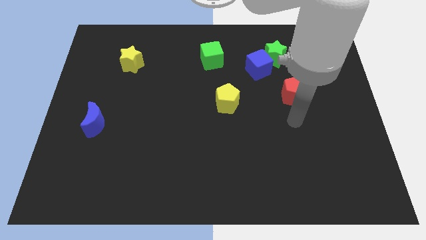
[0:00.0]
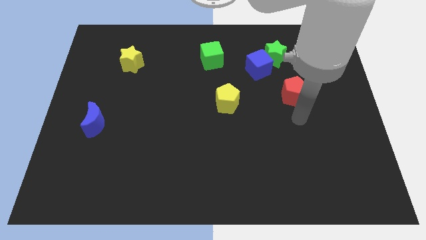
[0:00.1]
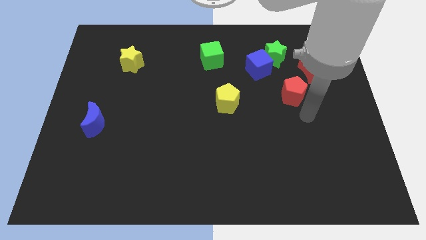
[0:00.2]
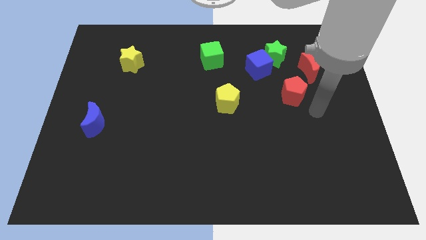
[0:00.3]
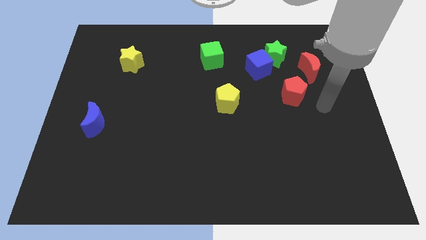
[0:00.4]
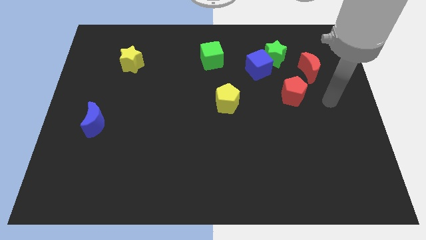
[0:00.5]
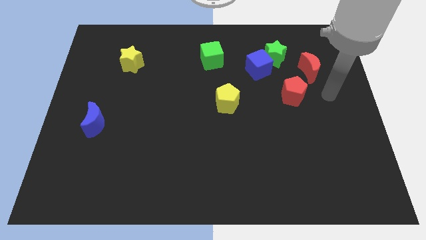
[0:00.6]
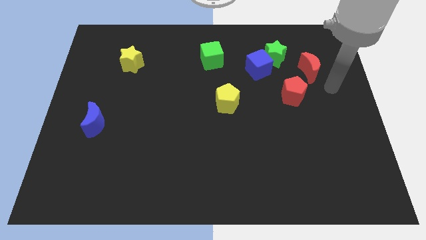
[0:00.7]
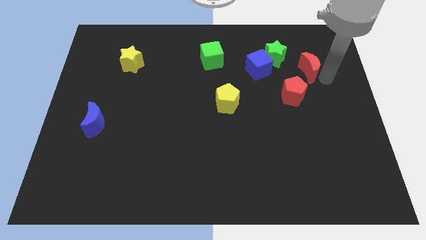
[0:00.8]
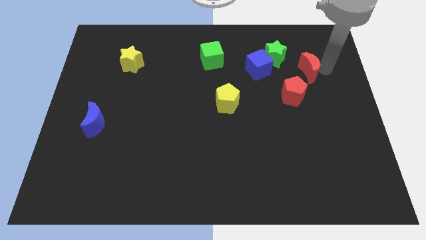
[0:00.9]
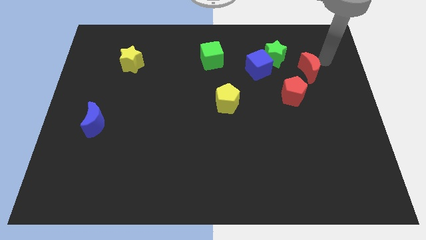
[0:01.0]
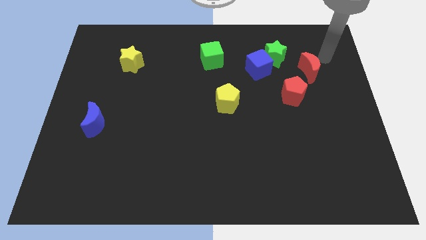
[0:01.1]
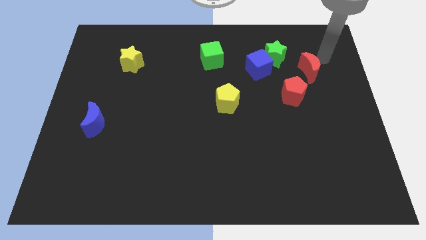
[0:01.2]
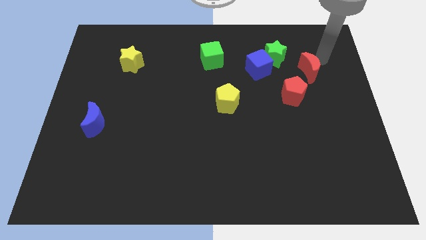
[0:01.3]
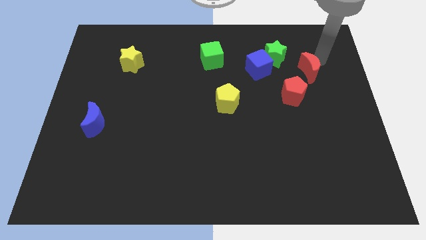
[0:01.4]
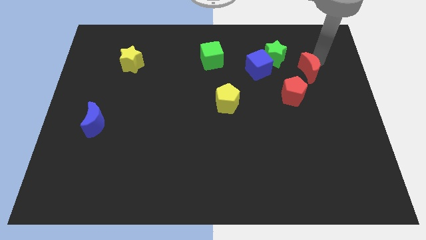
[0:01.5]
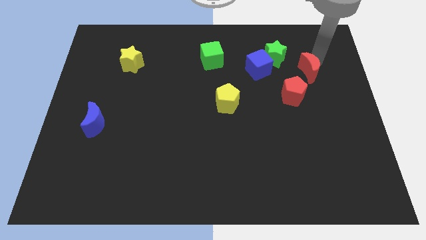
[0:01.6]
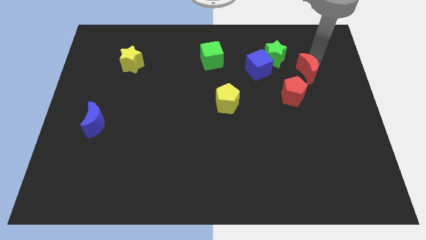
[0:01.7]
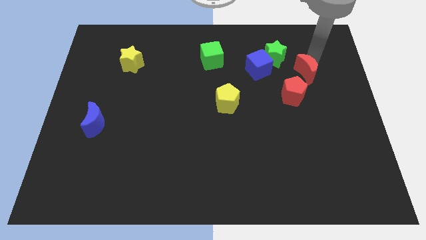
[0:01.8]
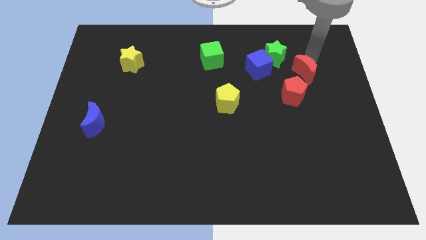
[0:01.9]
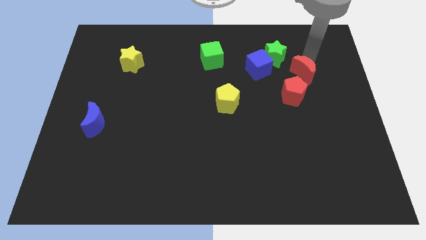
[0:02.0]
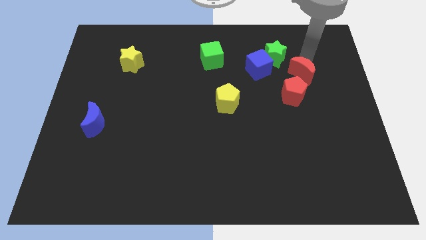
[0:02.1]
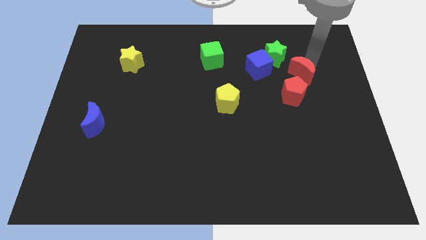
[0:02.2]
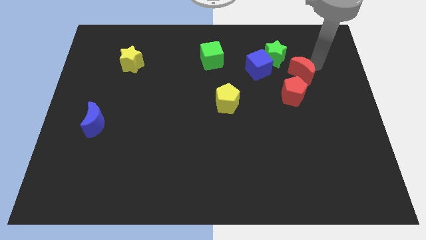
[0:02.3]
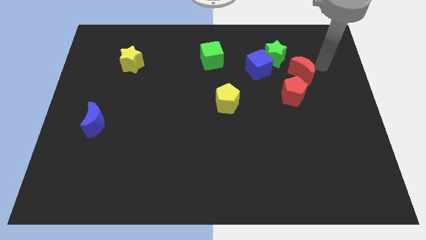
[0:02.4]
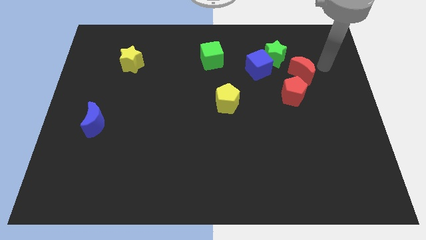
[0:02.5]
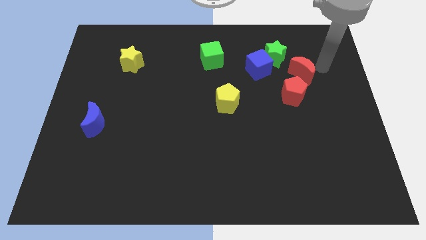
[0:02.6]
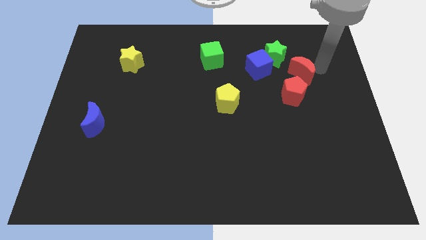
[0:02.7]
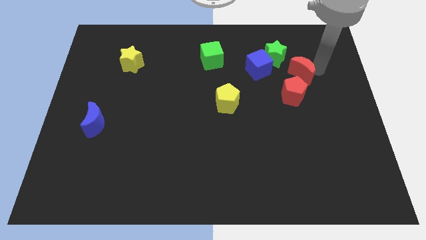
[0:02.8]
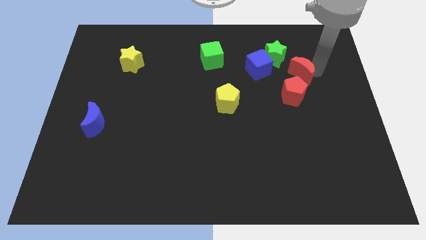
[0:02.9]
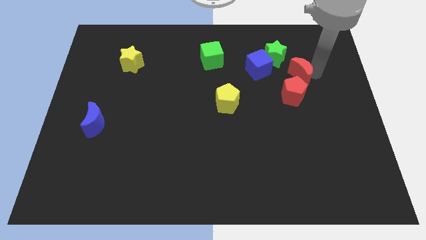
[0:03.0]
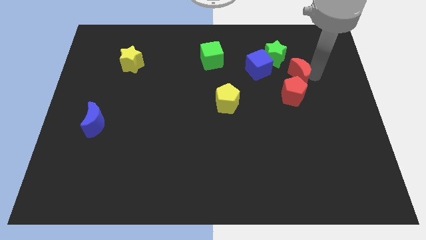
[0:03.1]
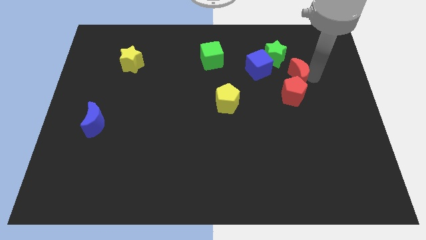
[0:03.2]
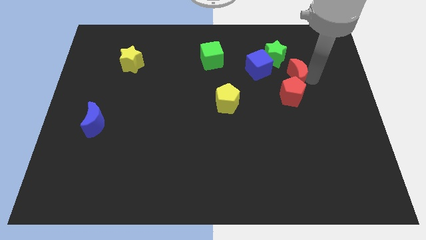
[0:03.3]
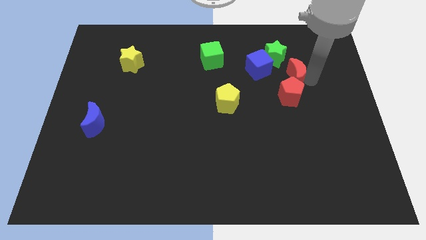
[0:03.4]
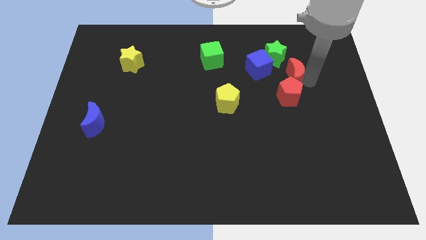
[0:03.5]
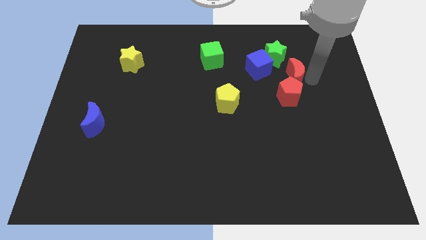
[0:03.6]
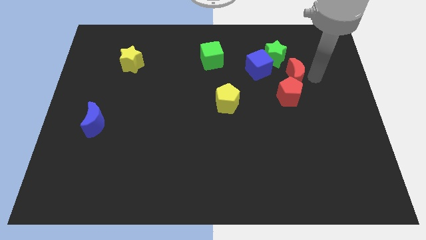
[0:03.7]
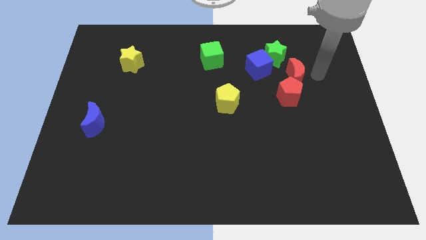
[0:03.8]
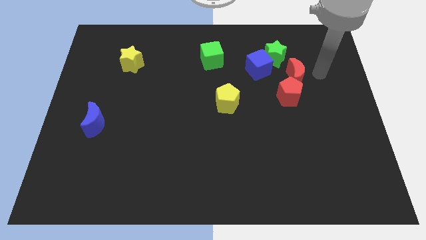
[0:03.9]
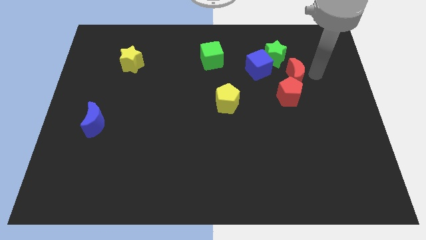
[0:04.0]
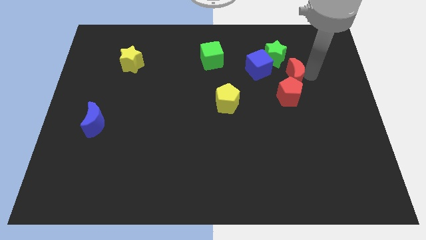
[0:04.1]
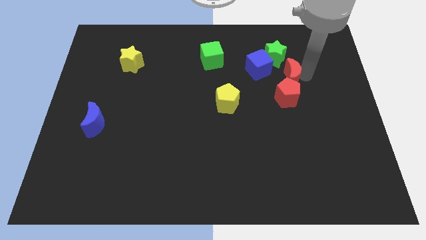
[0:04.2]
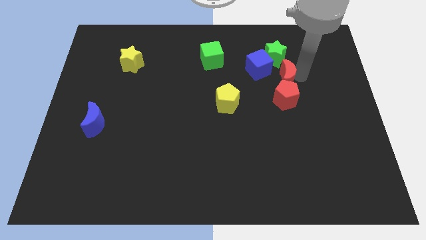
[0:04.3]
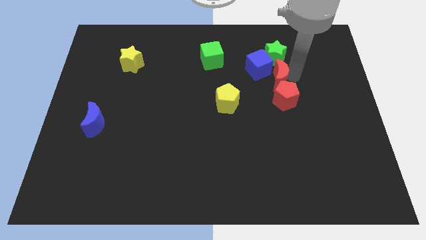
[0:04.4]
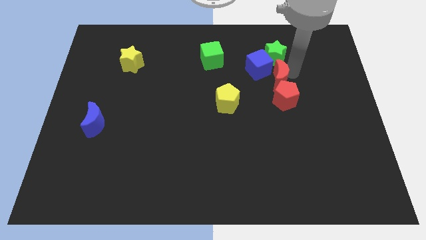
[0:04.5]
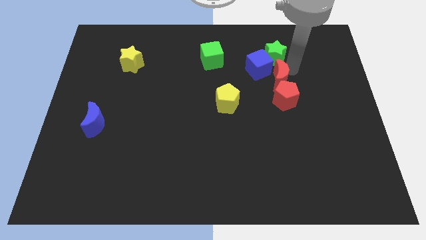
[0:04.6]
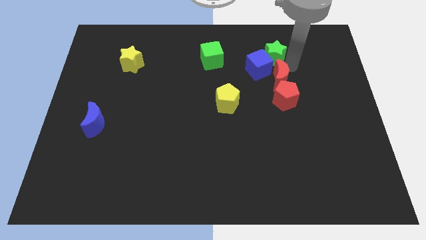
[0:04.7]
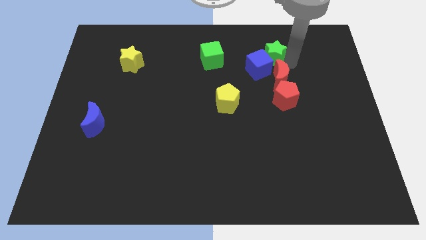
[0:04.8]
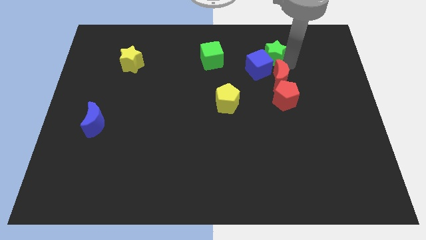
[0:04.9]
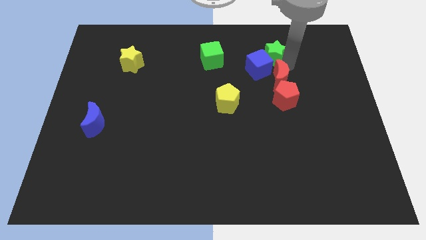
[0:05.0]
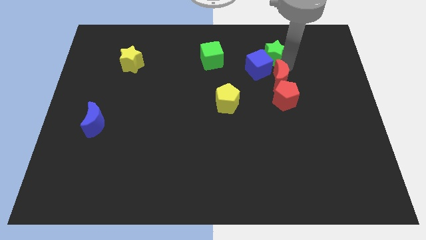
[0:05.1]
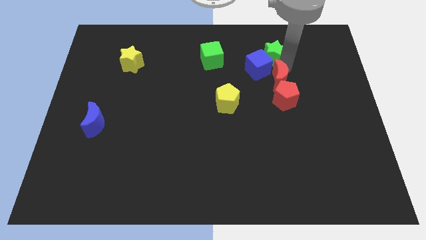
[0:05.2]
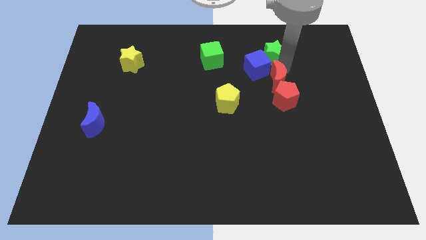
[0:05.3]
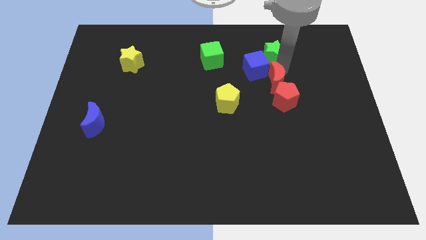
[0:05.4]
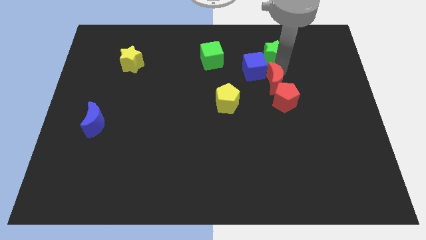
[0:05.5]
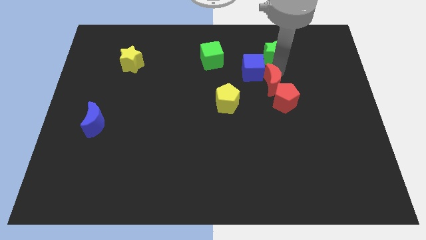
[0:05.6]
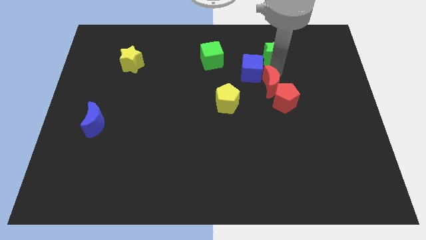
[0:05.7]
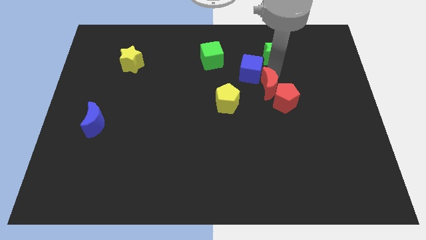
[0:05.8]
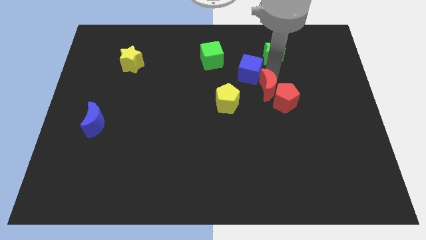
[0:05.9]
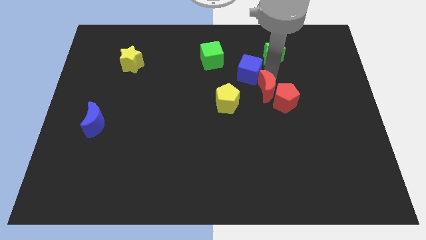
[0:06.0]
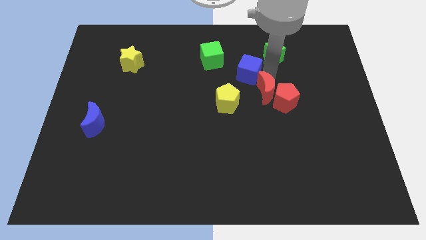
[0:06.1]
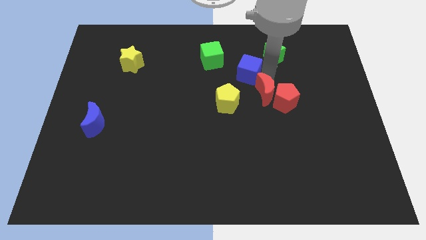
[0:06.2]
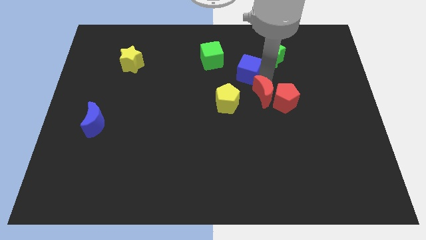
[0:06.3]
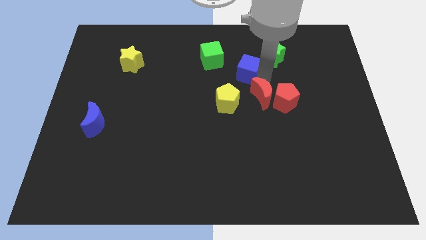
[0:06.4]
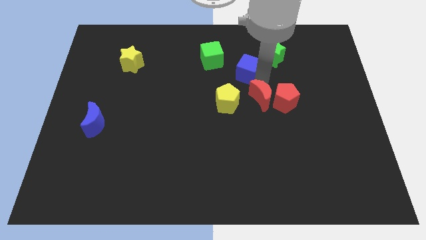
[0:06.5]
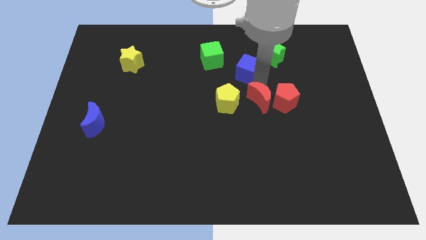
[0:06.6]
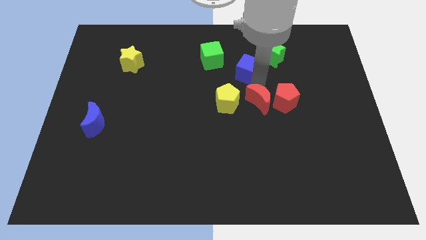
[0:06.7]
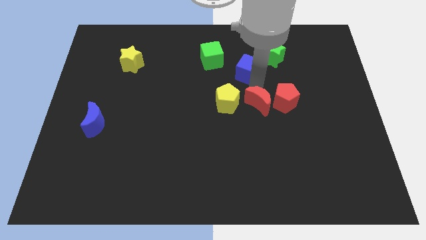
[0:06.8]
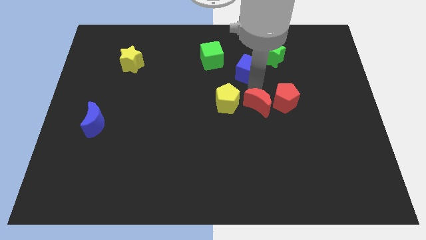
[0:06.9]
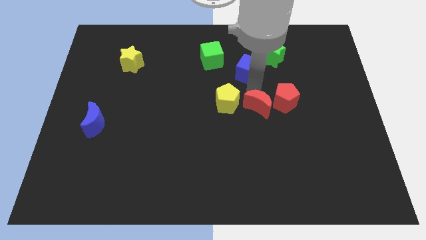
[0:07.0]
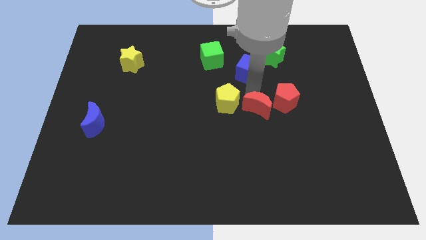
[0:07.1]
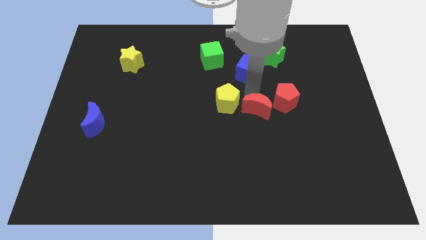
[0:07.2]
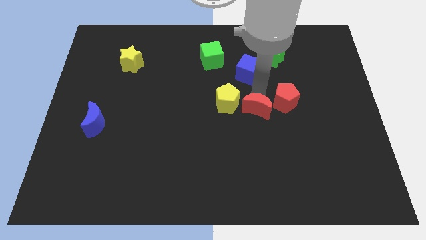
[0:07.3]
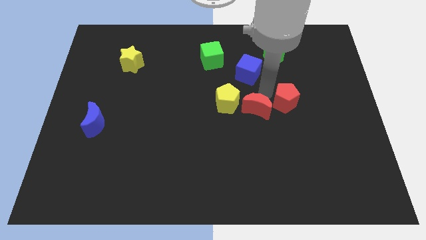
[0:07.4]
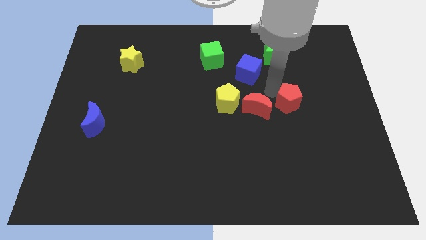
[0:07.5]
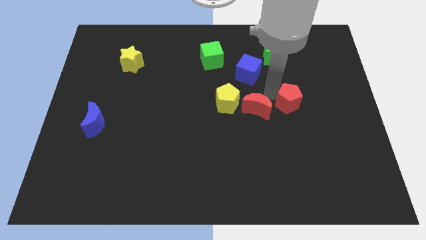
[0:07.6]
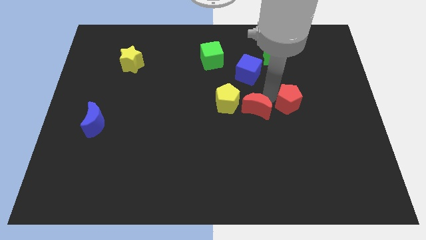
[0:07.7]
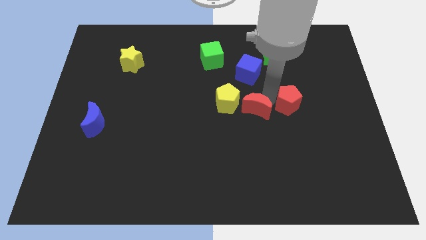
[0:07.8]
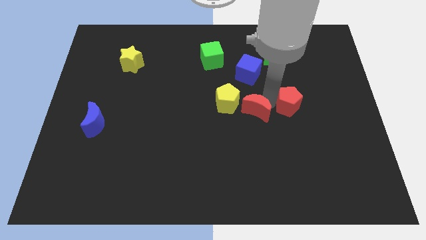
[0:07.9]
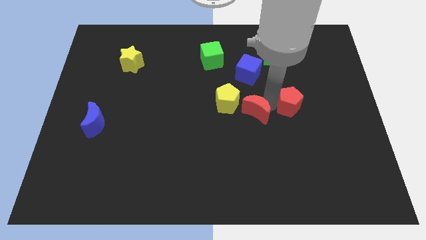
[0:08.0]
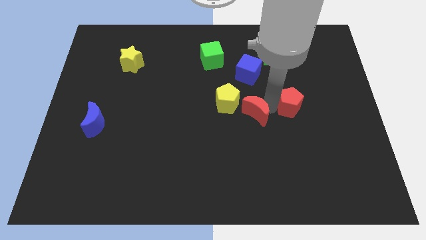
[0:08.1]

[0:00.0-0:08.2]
slide the red moon diagonally down and left
